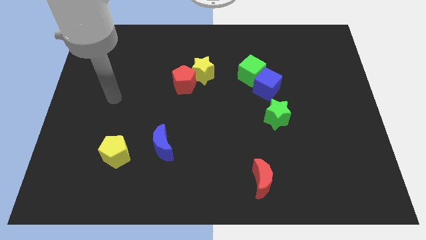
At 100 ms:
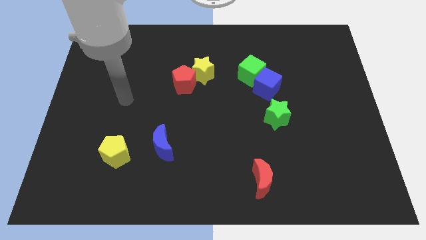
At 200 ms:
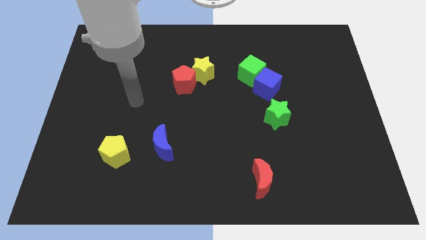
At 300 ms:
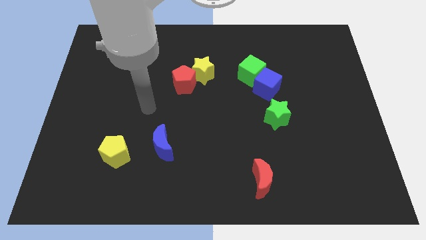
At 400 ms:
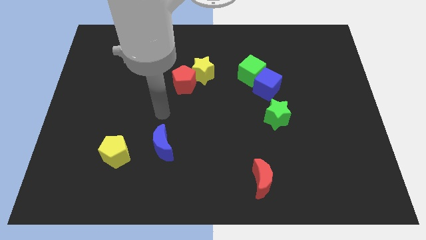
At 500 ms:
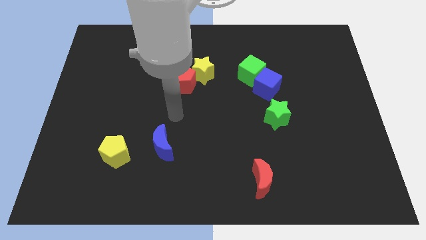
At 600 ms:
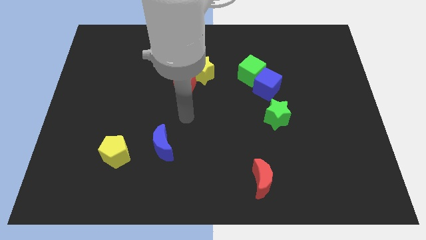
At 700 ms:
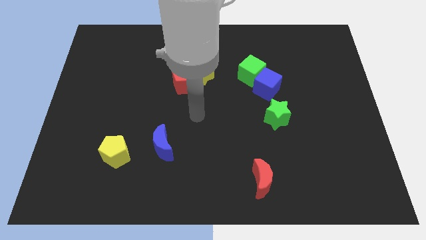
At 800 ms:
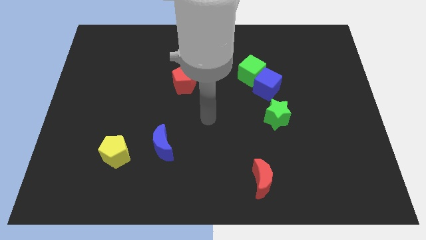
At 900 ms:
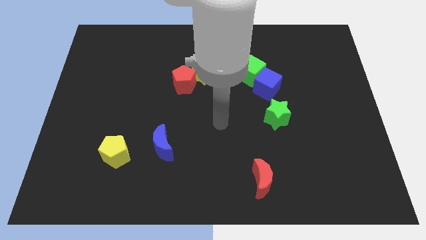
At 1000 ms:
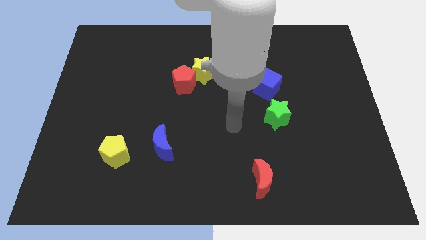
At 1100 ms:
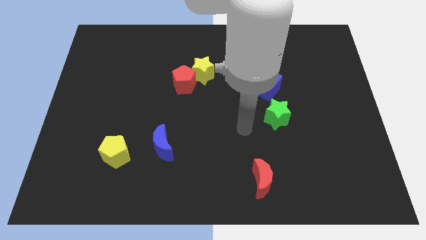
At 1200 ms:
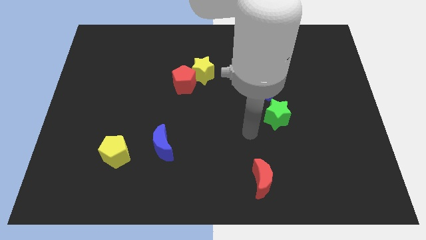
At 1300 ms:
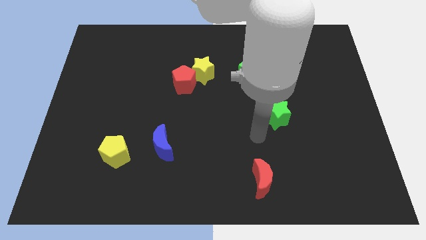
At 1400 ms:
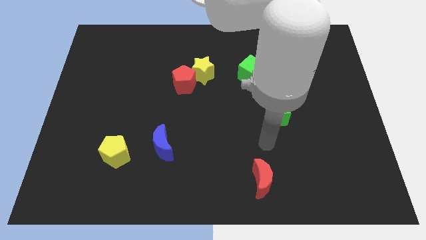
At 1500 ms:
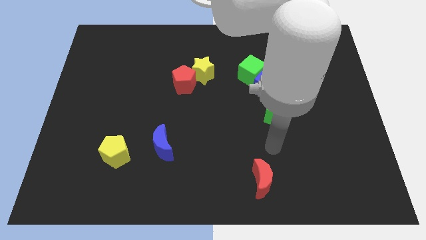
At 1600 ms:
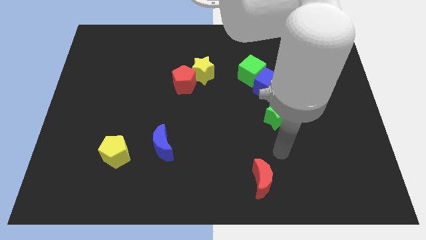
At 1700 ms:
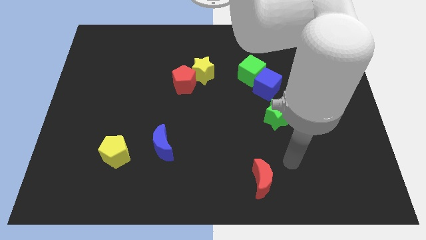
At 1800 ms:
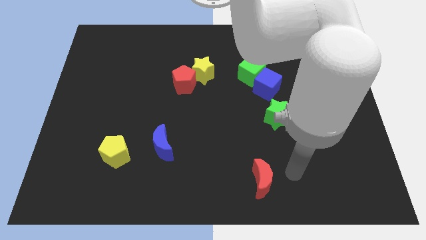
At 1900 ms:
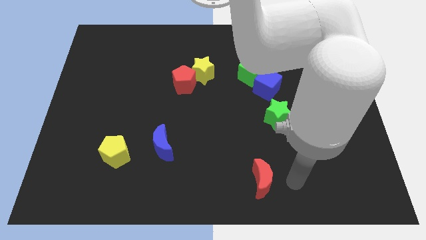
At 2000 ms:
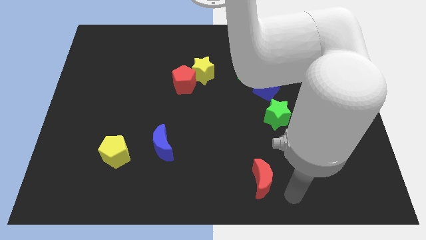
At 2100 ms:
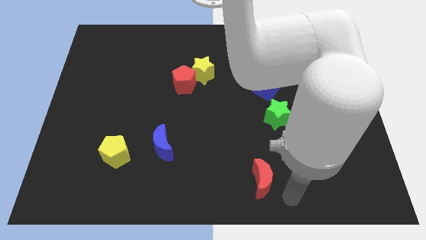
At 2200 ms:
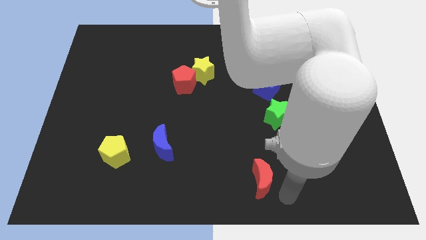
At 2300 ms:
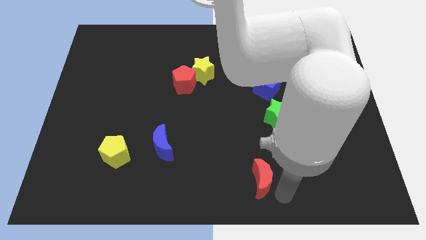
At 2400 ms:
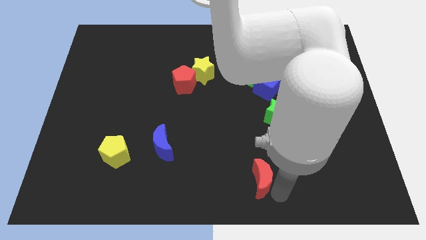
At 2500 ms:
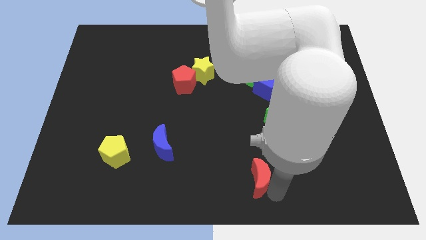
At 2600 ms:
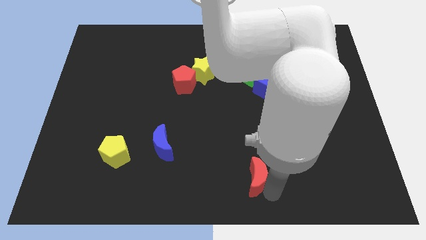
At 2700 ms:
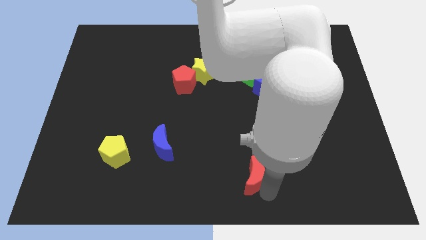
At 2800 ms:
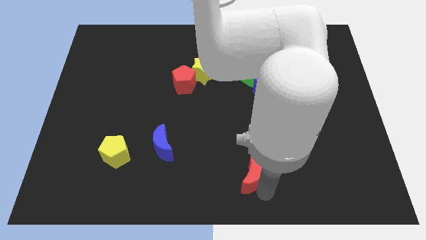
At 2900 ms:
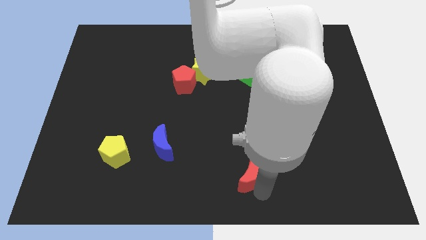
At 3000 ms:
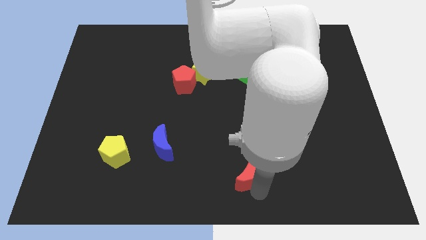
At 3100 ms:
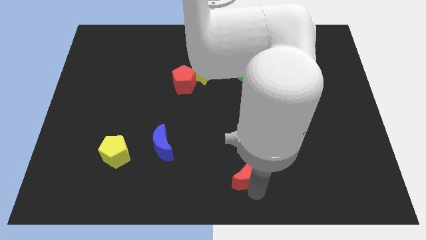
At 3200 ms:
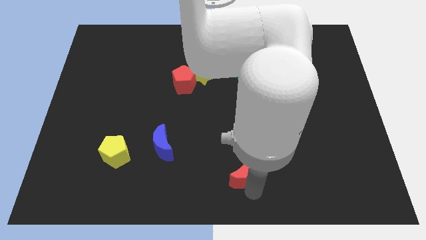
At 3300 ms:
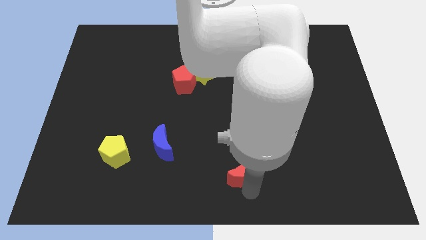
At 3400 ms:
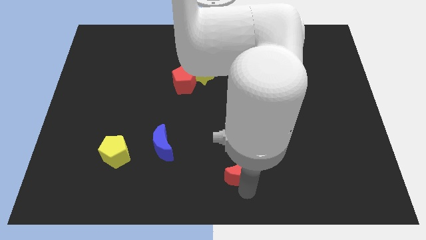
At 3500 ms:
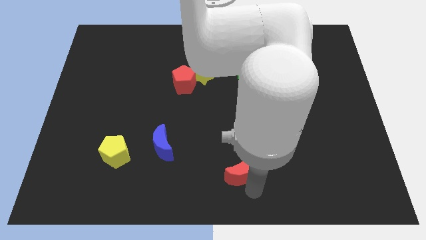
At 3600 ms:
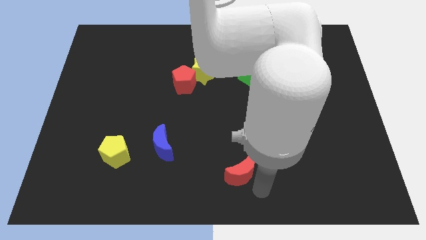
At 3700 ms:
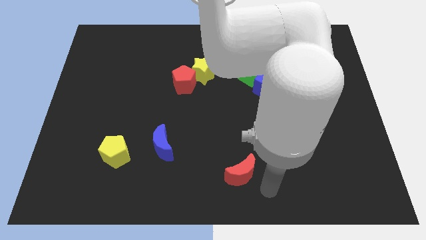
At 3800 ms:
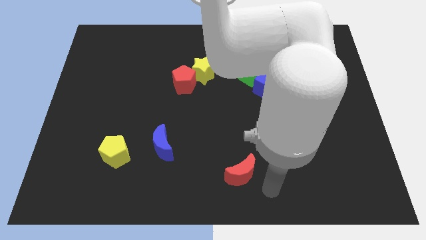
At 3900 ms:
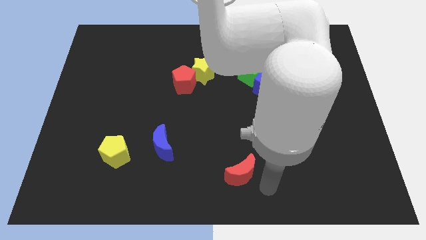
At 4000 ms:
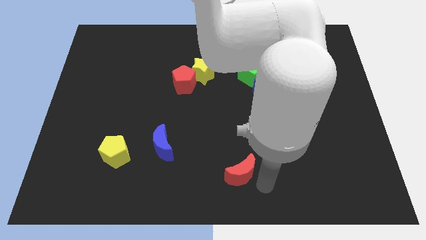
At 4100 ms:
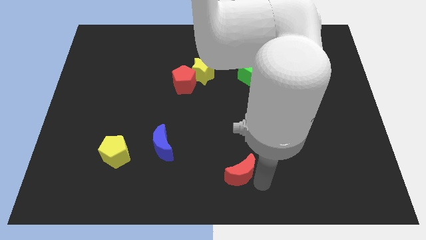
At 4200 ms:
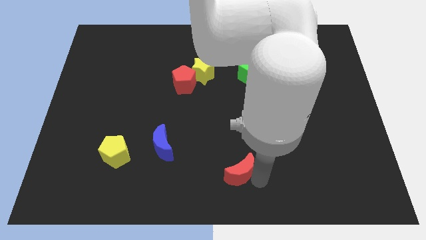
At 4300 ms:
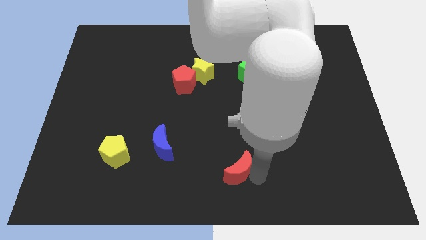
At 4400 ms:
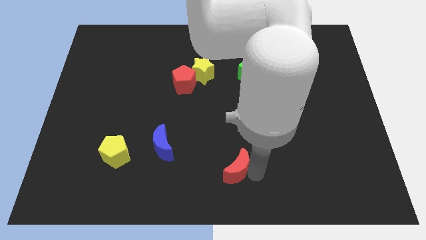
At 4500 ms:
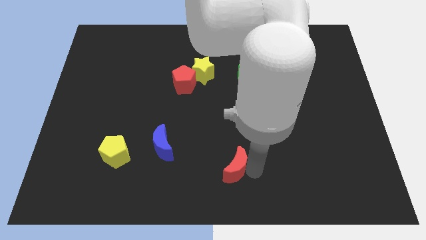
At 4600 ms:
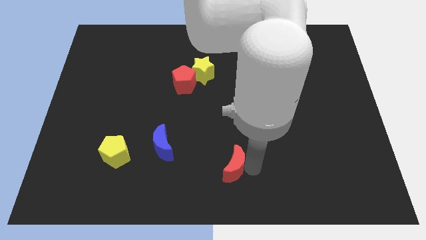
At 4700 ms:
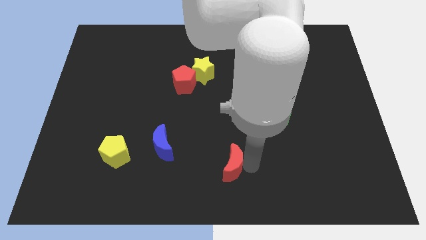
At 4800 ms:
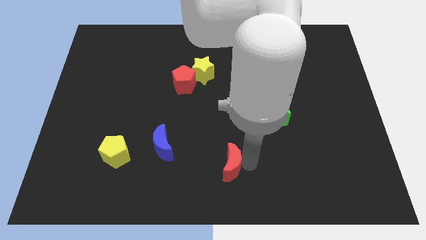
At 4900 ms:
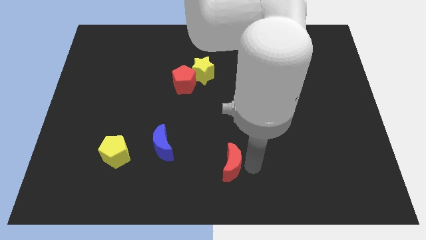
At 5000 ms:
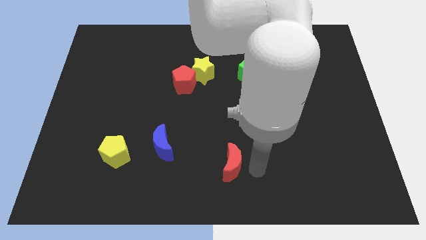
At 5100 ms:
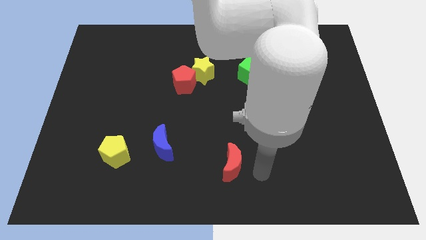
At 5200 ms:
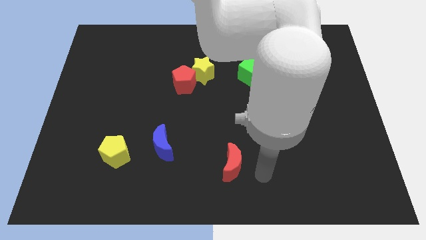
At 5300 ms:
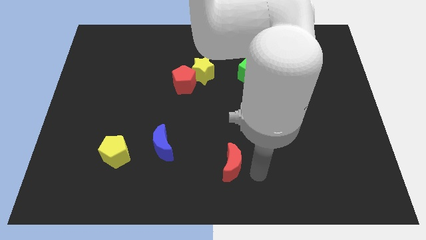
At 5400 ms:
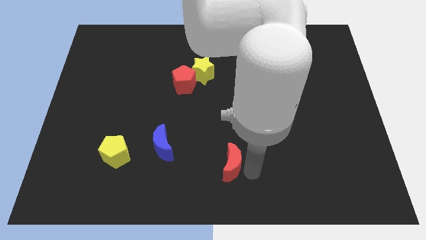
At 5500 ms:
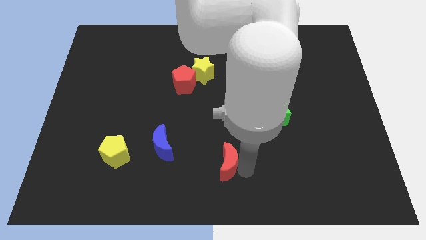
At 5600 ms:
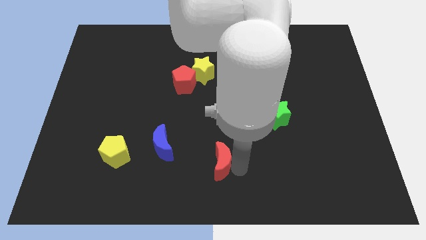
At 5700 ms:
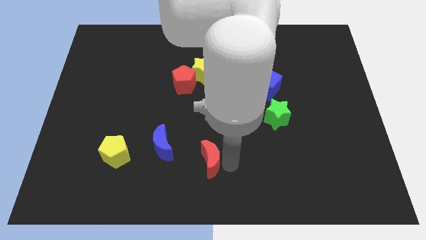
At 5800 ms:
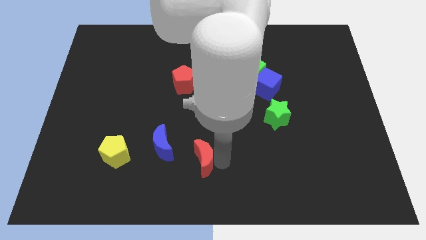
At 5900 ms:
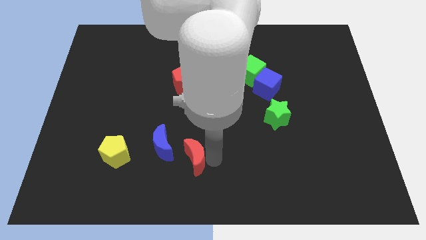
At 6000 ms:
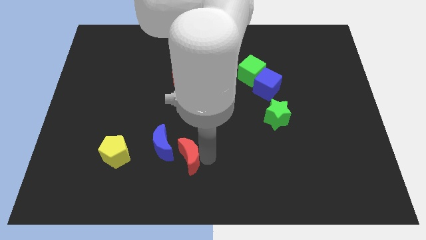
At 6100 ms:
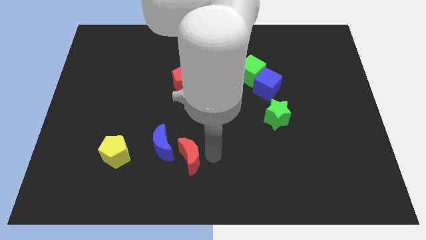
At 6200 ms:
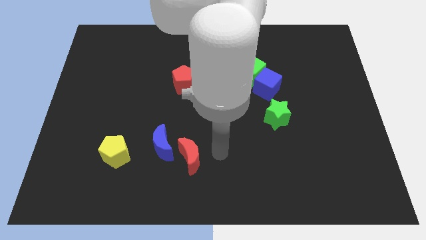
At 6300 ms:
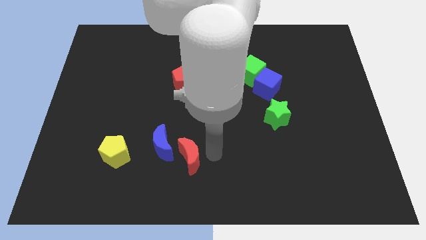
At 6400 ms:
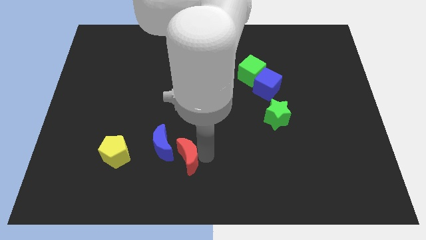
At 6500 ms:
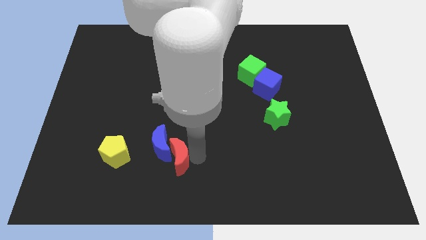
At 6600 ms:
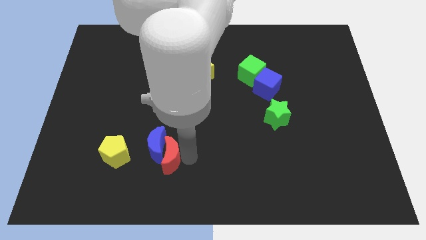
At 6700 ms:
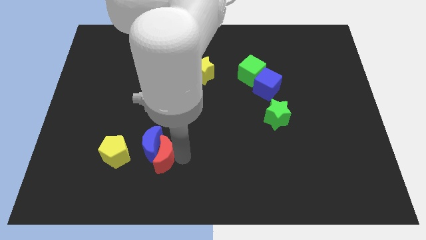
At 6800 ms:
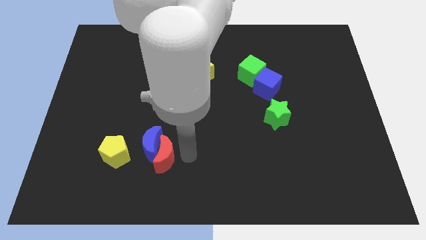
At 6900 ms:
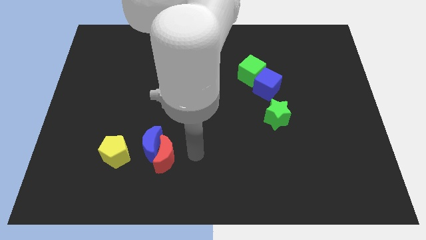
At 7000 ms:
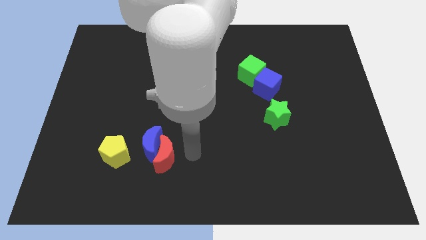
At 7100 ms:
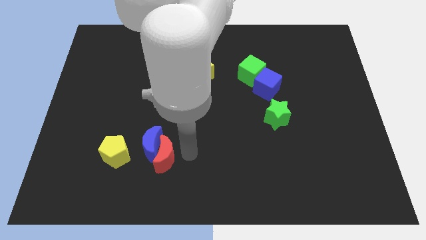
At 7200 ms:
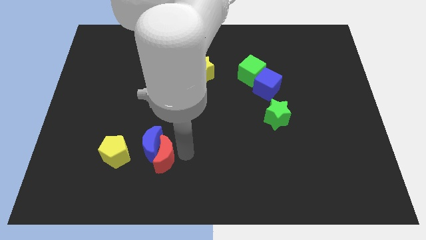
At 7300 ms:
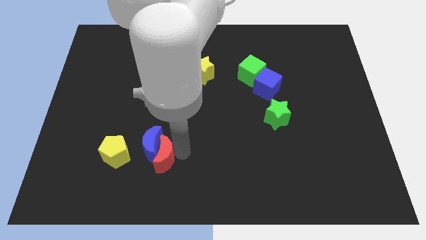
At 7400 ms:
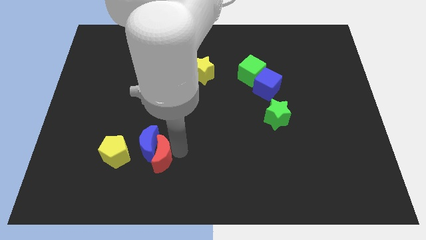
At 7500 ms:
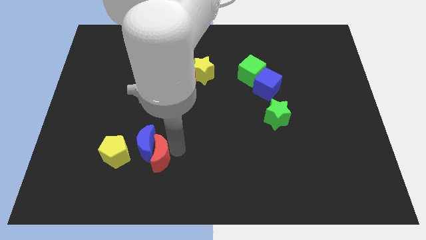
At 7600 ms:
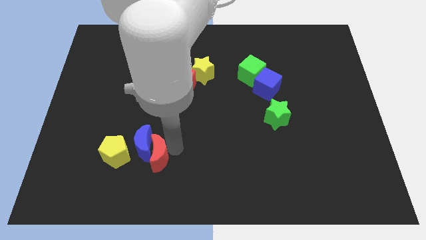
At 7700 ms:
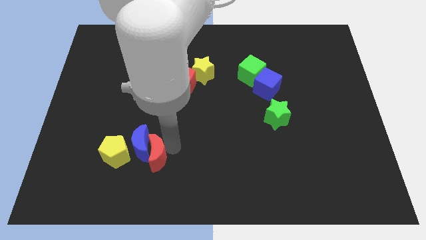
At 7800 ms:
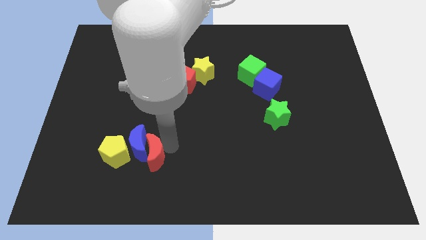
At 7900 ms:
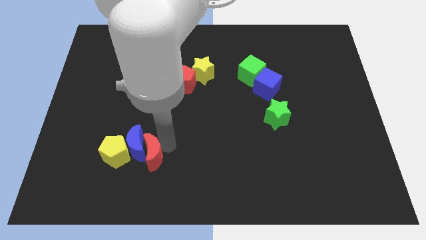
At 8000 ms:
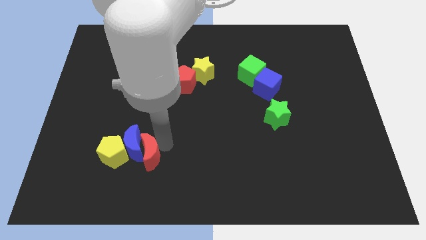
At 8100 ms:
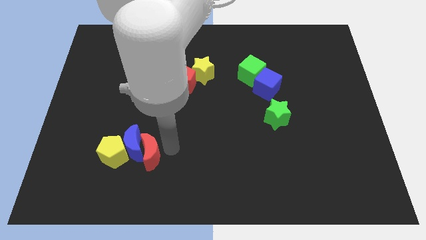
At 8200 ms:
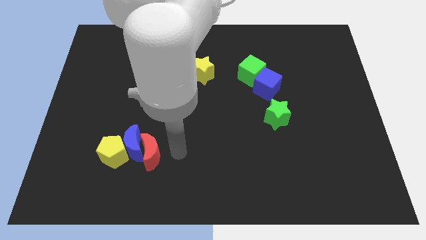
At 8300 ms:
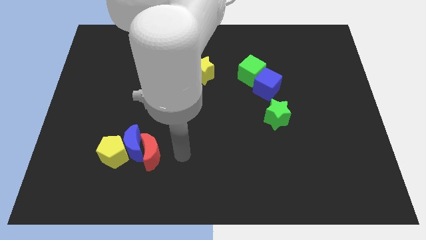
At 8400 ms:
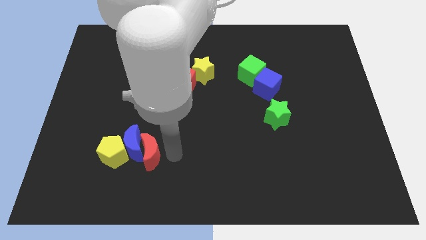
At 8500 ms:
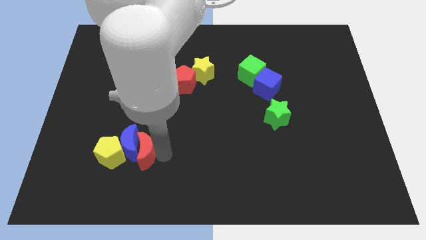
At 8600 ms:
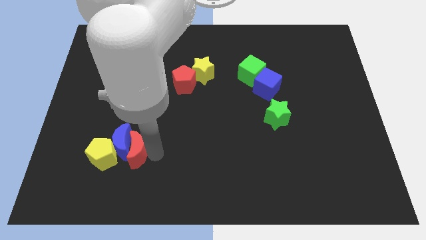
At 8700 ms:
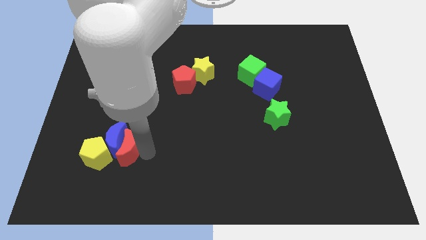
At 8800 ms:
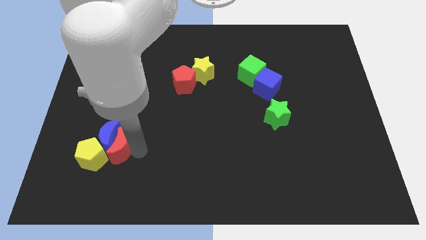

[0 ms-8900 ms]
slide the red moon next to the yellow pentagon
